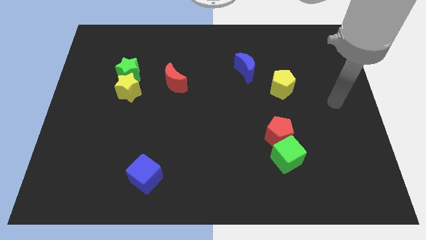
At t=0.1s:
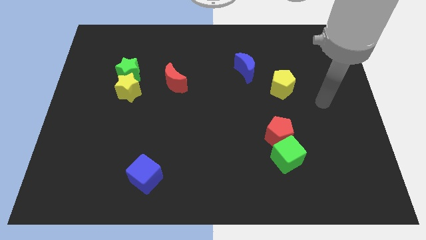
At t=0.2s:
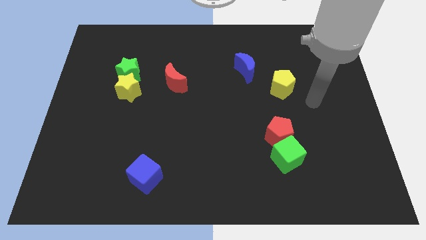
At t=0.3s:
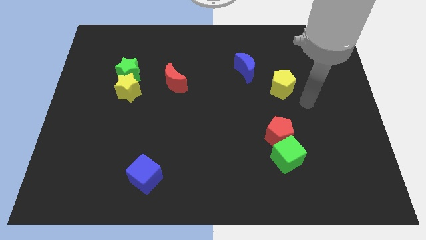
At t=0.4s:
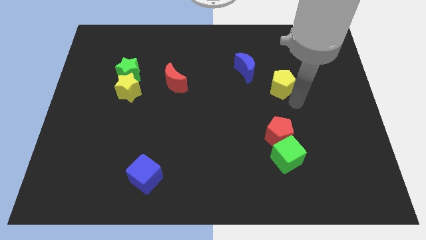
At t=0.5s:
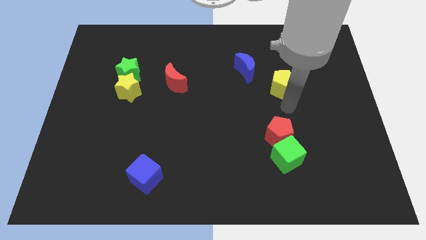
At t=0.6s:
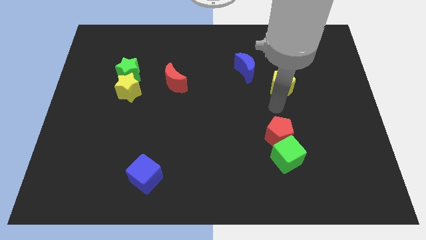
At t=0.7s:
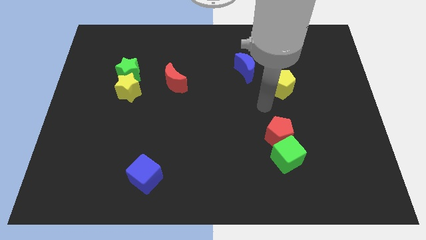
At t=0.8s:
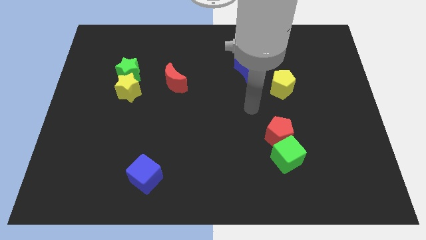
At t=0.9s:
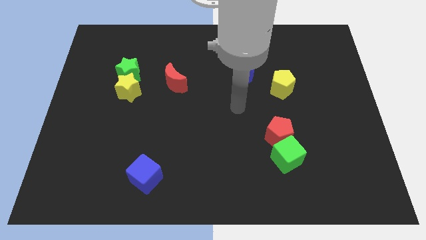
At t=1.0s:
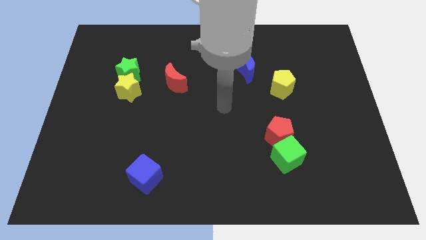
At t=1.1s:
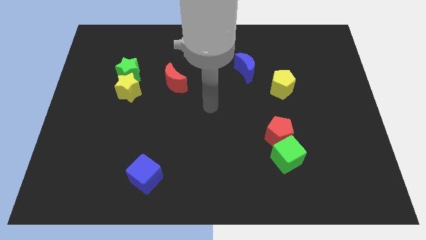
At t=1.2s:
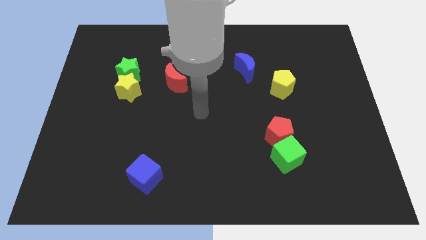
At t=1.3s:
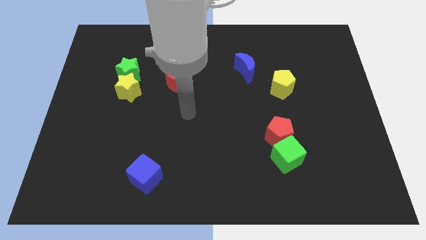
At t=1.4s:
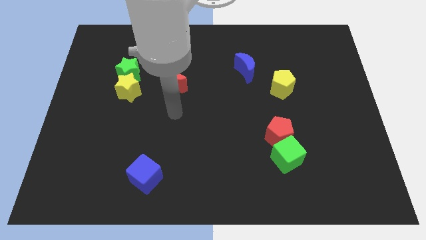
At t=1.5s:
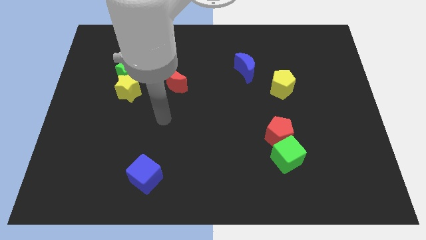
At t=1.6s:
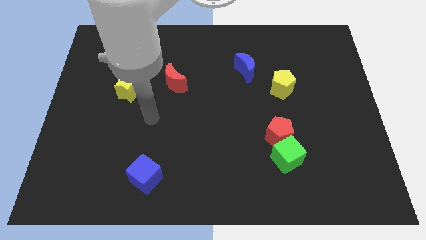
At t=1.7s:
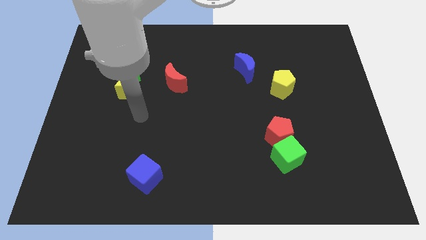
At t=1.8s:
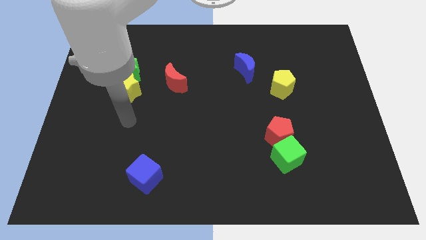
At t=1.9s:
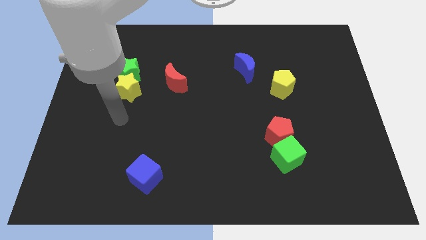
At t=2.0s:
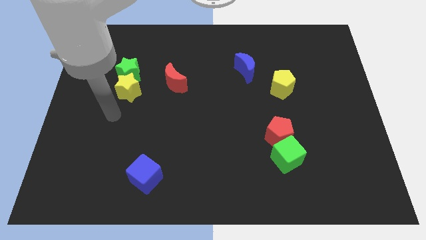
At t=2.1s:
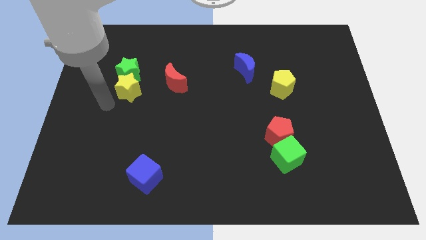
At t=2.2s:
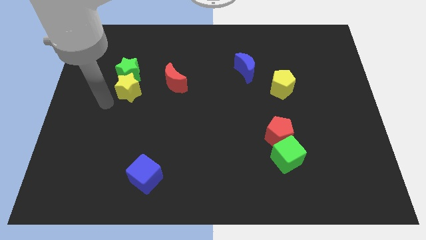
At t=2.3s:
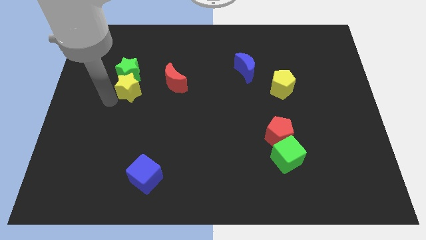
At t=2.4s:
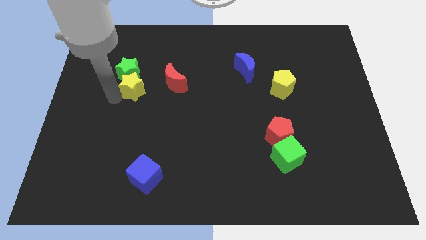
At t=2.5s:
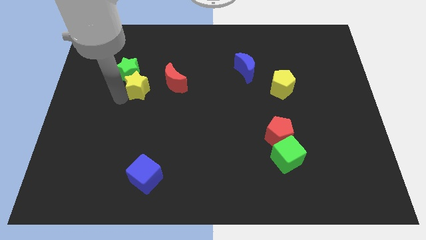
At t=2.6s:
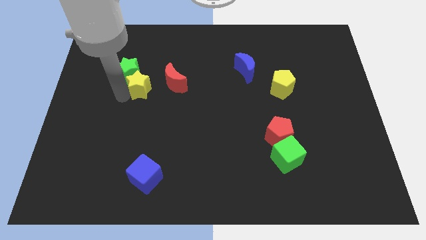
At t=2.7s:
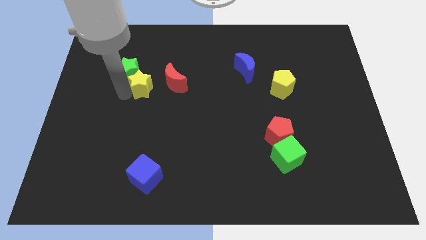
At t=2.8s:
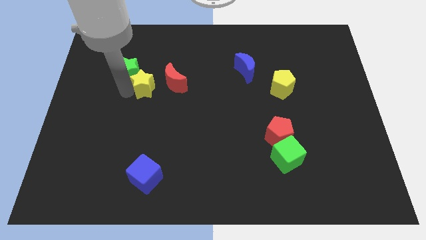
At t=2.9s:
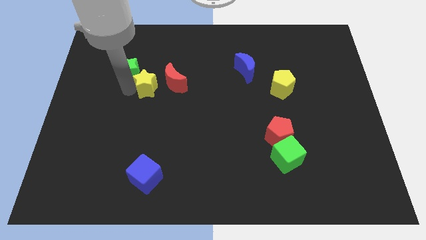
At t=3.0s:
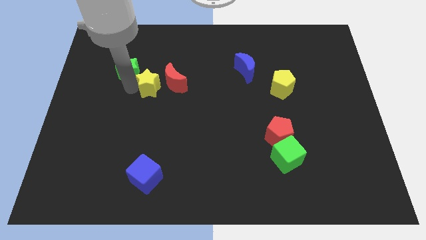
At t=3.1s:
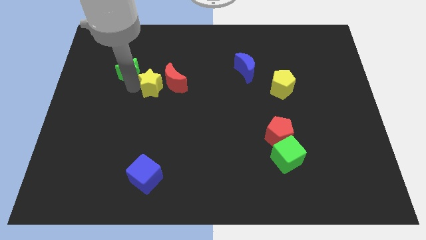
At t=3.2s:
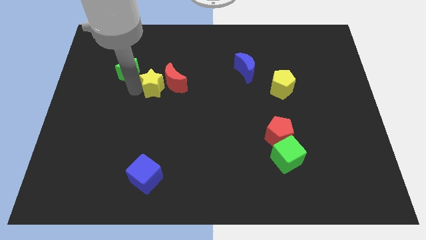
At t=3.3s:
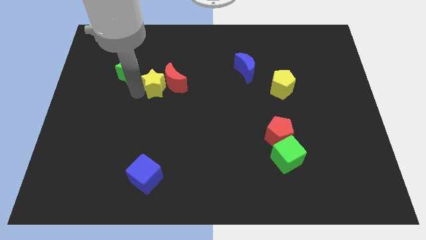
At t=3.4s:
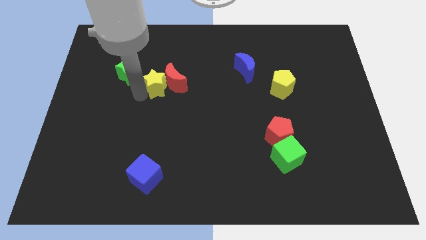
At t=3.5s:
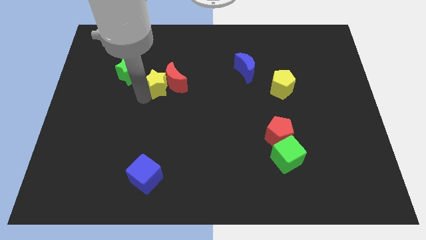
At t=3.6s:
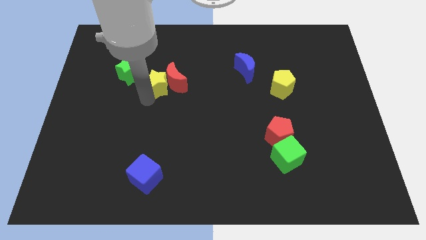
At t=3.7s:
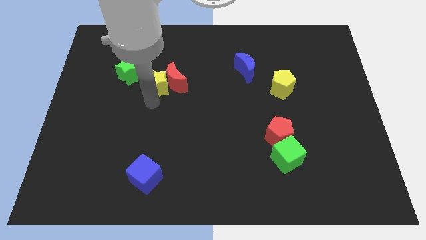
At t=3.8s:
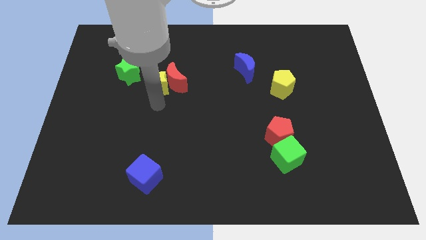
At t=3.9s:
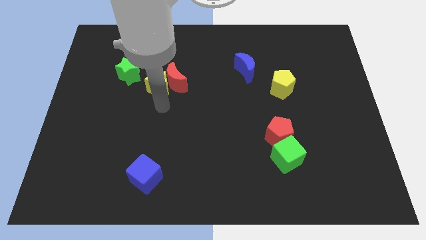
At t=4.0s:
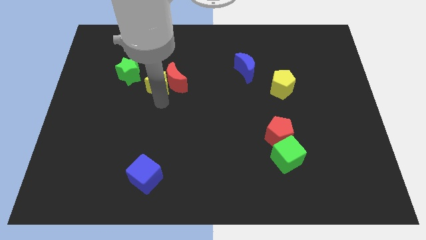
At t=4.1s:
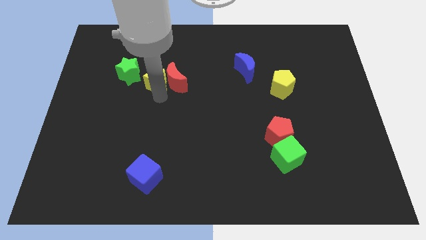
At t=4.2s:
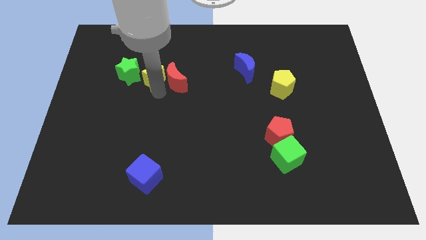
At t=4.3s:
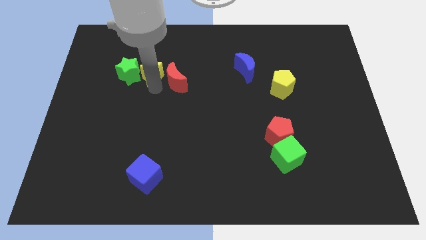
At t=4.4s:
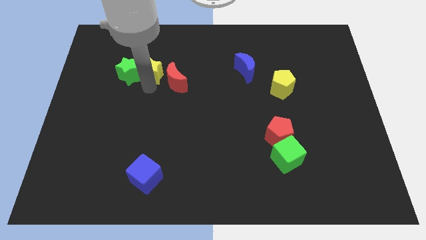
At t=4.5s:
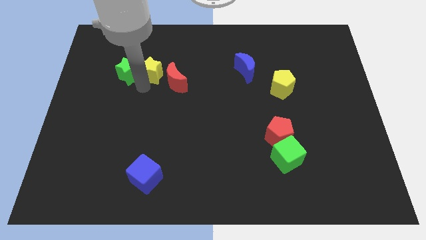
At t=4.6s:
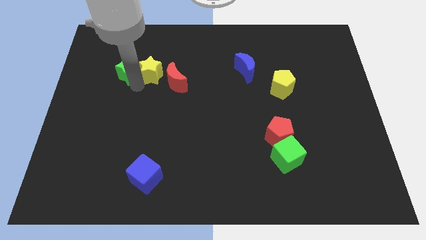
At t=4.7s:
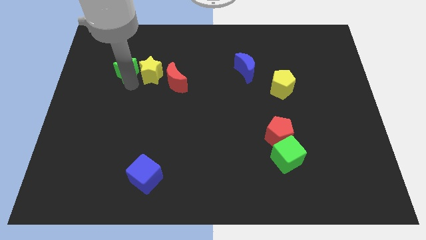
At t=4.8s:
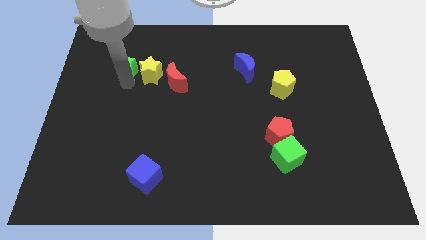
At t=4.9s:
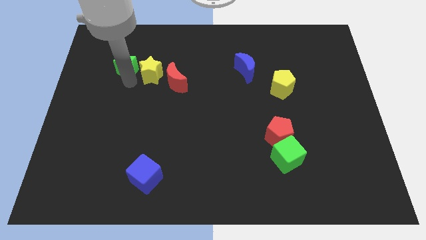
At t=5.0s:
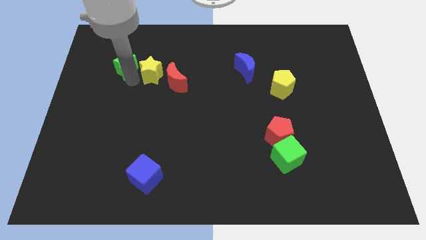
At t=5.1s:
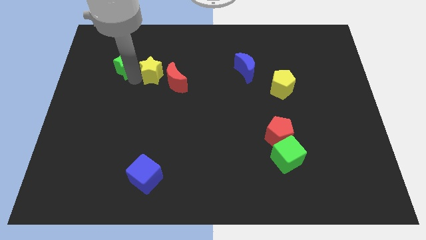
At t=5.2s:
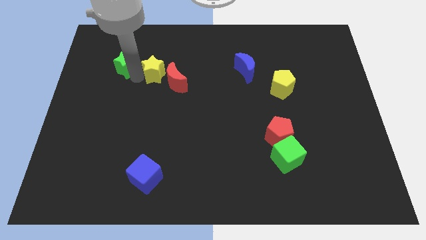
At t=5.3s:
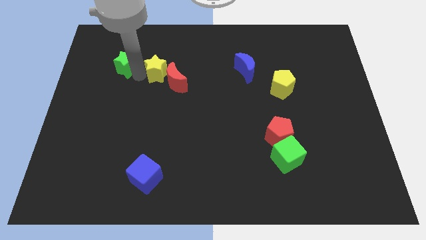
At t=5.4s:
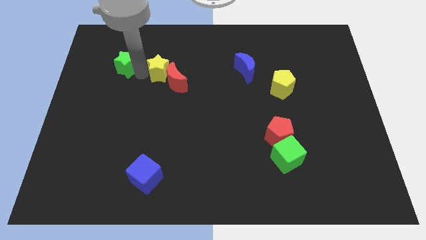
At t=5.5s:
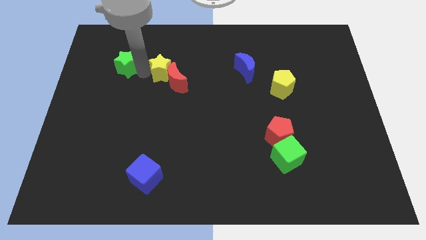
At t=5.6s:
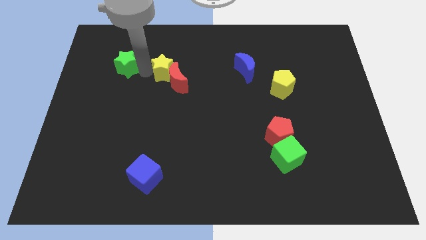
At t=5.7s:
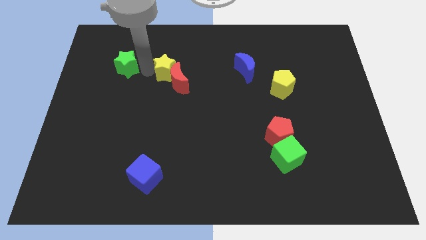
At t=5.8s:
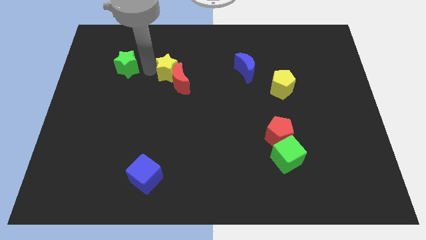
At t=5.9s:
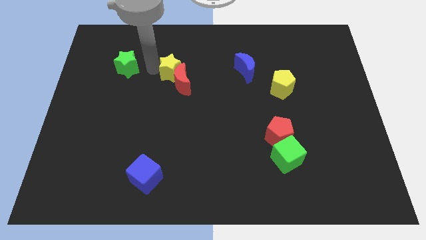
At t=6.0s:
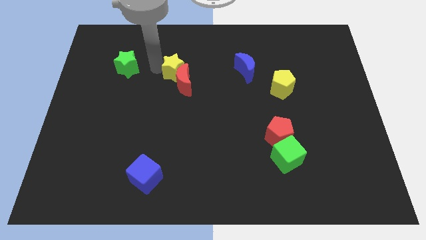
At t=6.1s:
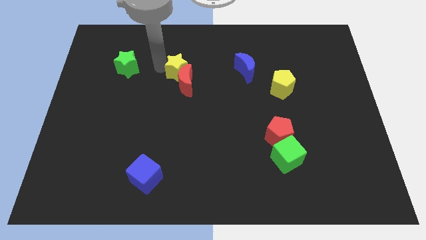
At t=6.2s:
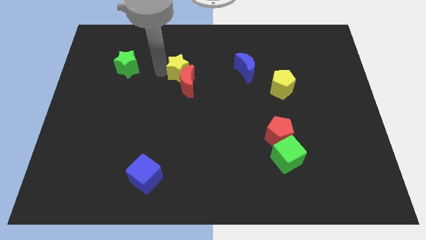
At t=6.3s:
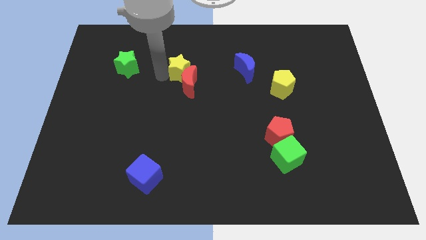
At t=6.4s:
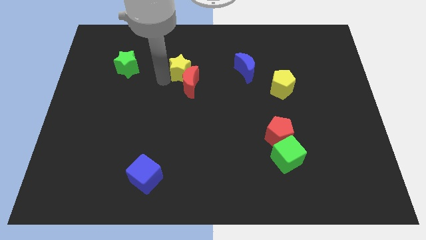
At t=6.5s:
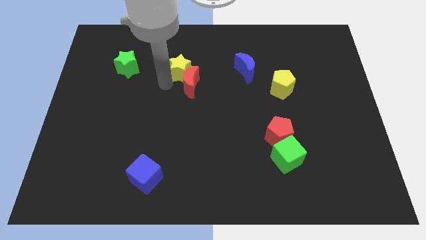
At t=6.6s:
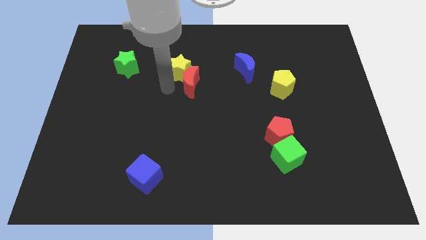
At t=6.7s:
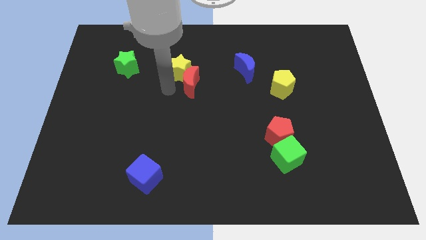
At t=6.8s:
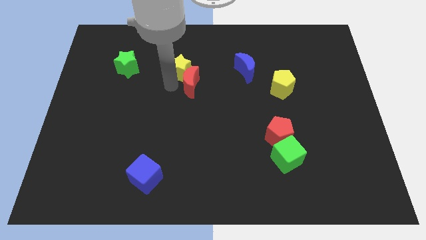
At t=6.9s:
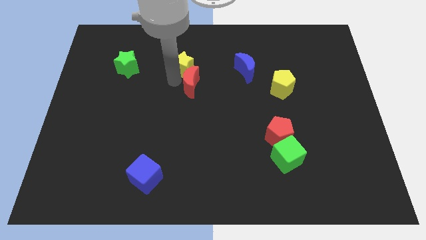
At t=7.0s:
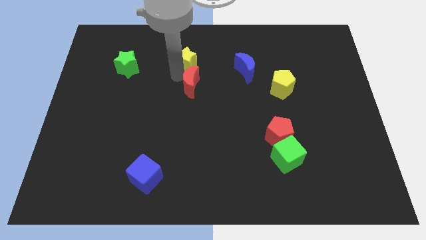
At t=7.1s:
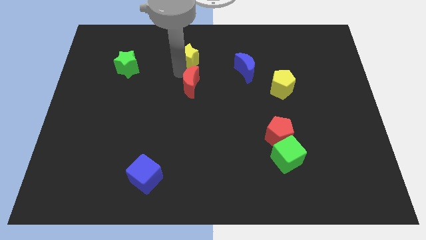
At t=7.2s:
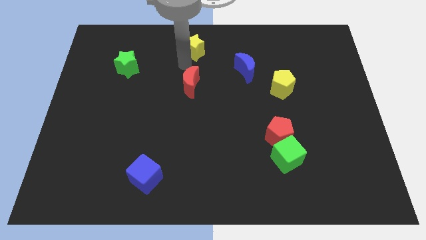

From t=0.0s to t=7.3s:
push the yellow star to the towards your base
